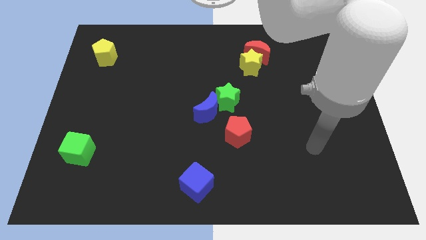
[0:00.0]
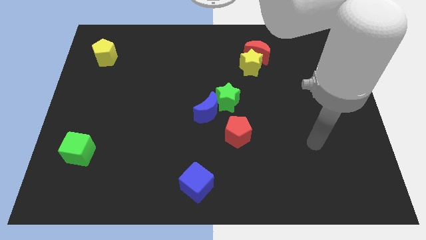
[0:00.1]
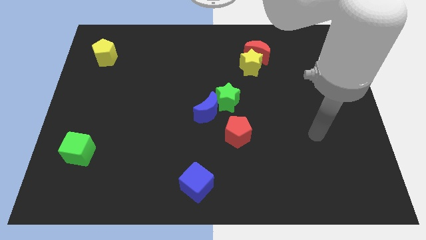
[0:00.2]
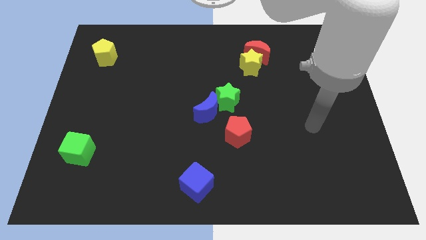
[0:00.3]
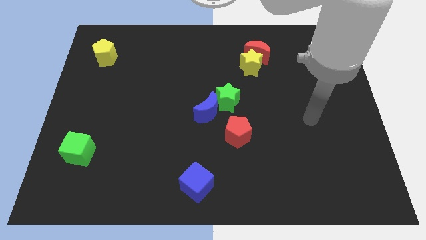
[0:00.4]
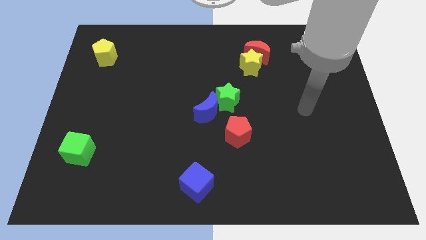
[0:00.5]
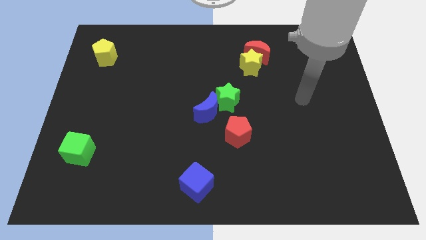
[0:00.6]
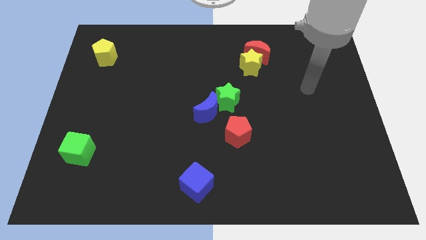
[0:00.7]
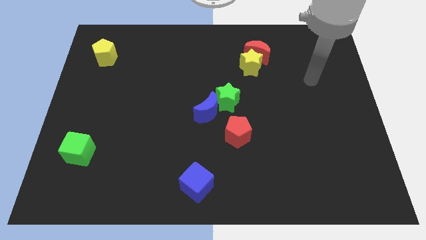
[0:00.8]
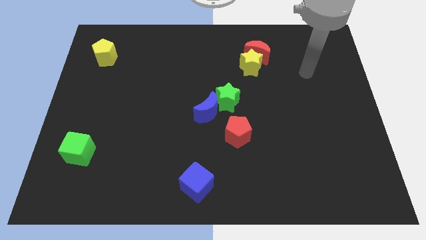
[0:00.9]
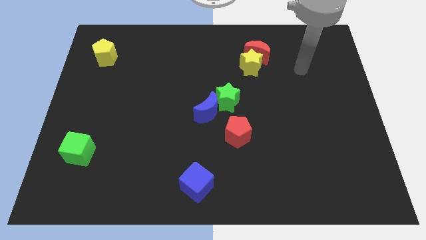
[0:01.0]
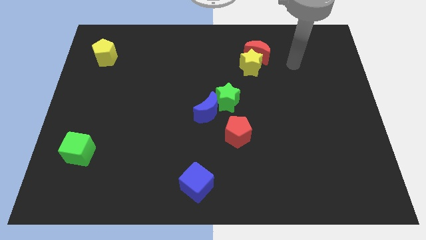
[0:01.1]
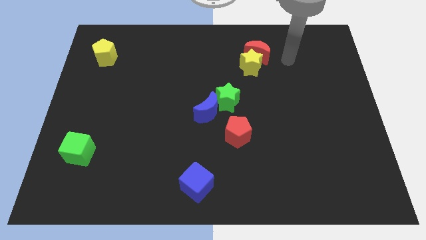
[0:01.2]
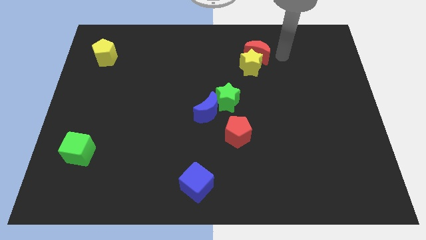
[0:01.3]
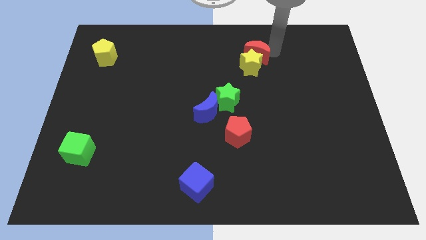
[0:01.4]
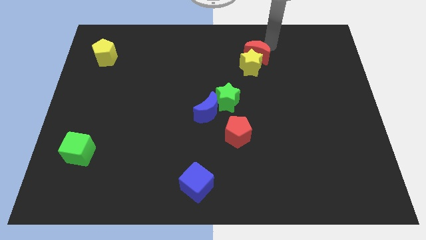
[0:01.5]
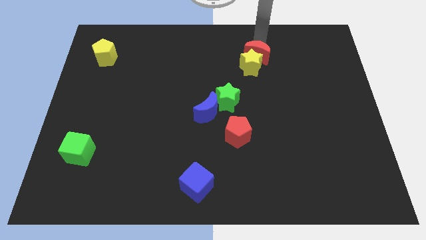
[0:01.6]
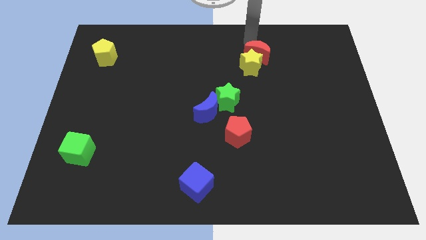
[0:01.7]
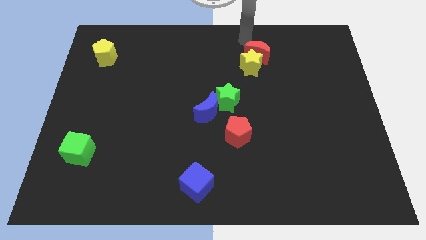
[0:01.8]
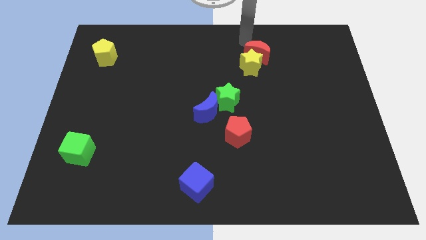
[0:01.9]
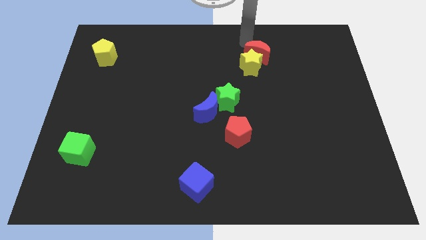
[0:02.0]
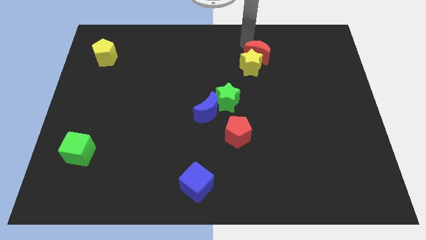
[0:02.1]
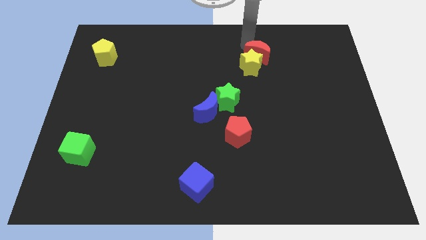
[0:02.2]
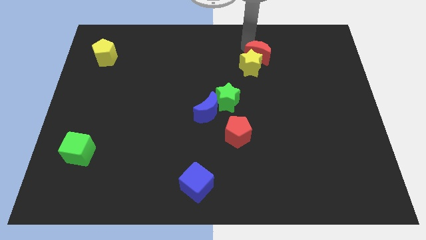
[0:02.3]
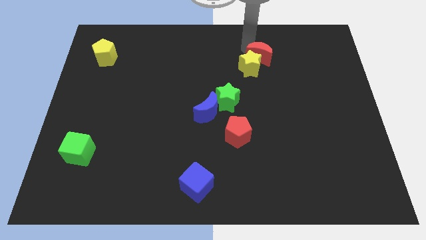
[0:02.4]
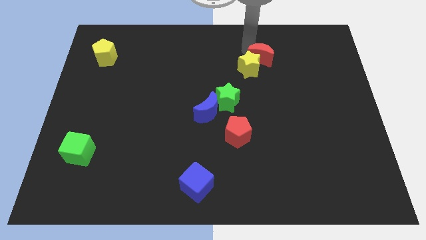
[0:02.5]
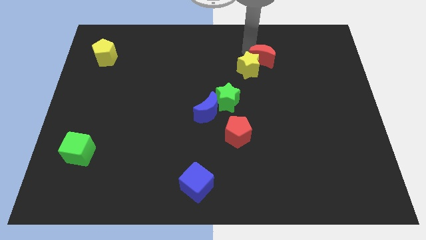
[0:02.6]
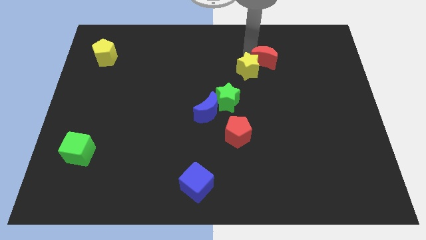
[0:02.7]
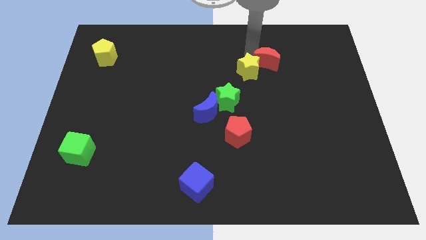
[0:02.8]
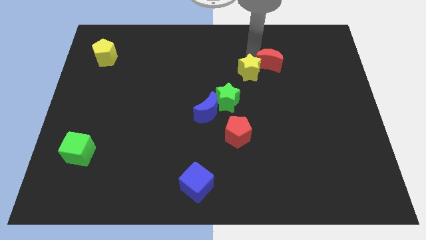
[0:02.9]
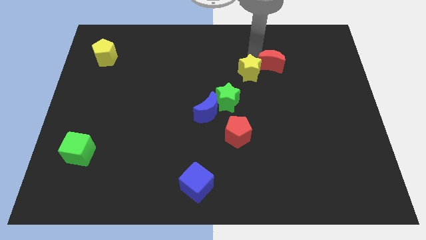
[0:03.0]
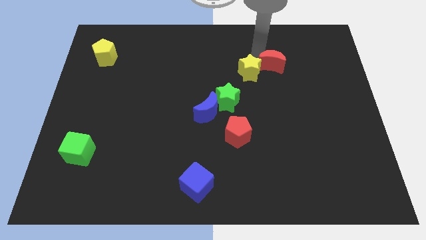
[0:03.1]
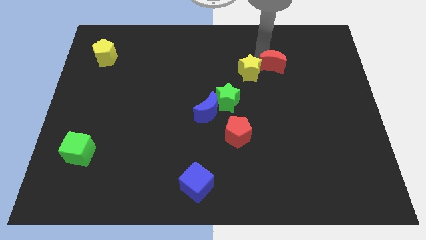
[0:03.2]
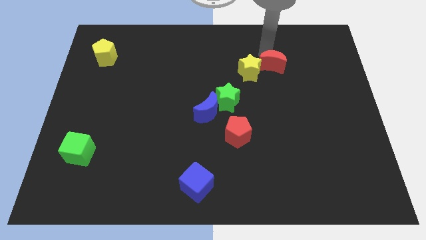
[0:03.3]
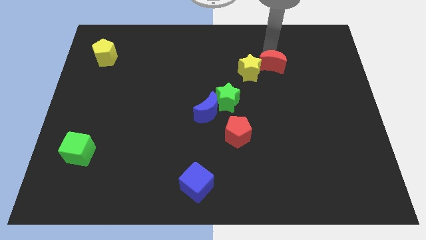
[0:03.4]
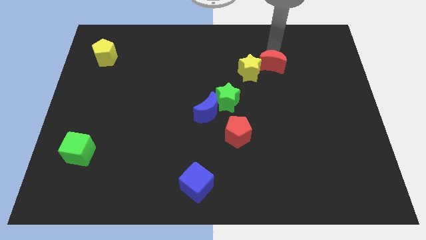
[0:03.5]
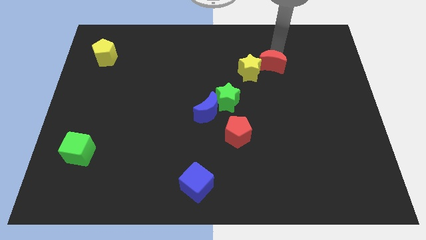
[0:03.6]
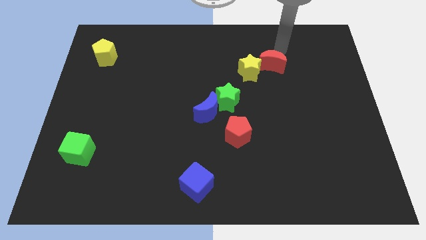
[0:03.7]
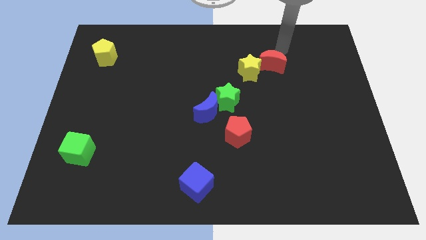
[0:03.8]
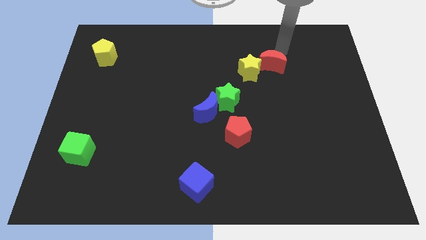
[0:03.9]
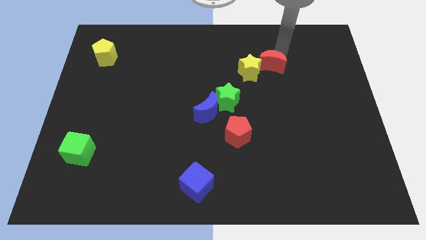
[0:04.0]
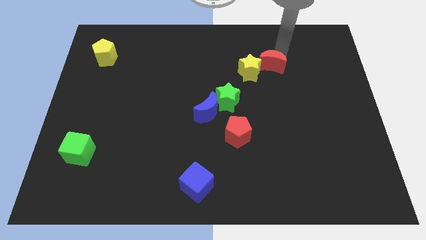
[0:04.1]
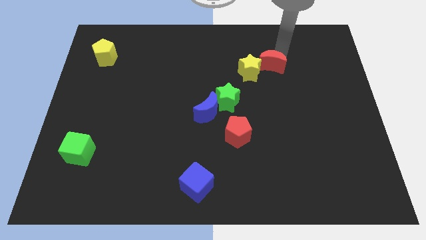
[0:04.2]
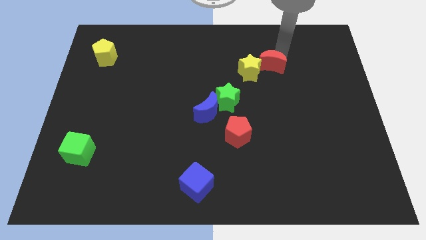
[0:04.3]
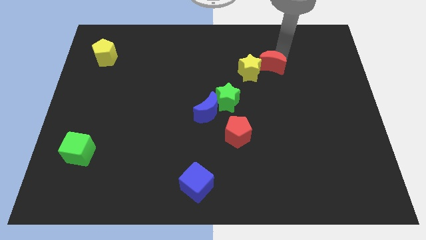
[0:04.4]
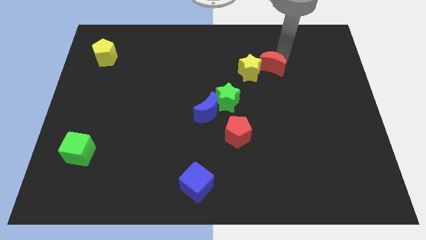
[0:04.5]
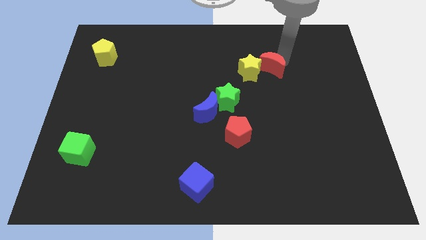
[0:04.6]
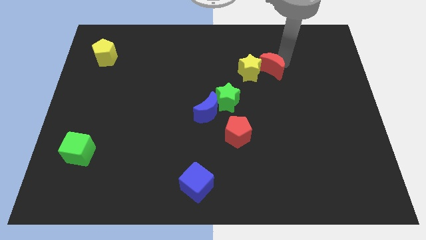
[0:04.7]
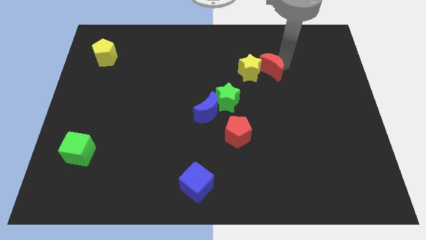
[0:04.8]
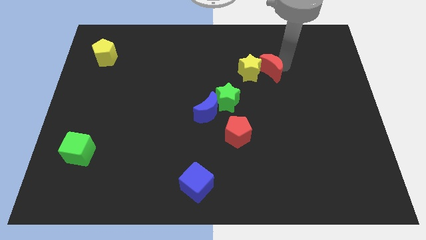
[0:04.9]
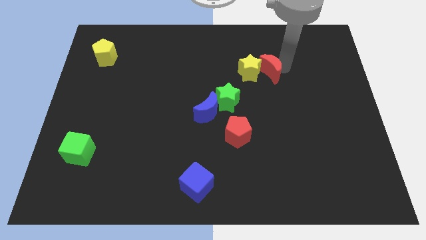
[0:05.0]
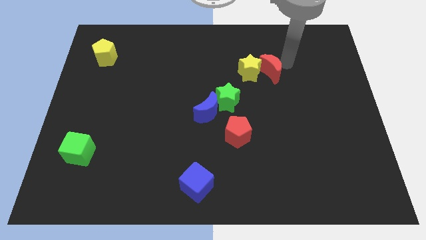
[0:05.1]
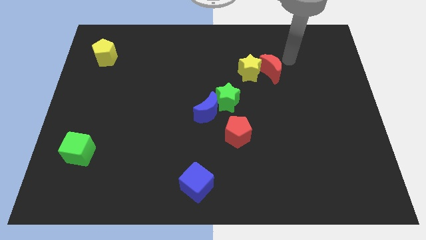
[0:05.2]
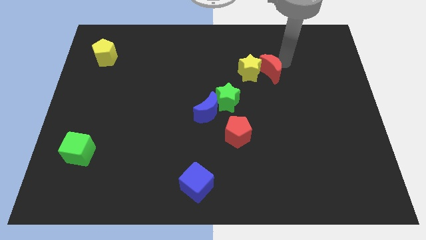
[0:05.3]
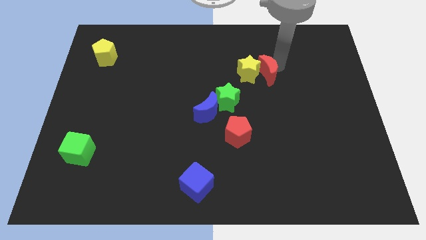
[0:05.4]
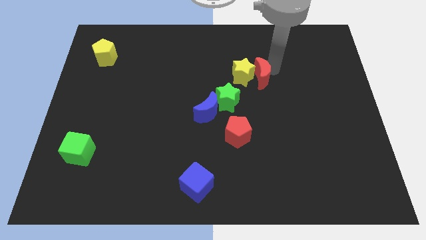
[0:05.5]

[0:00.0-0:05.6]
put the red moon to the top right of the green star

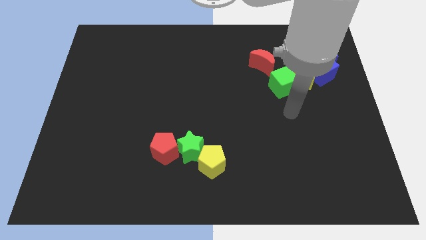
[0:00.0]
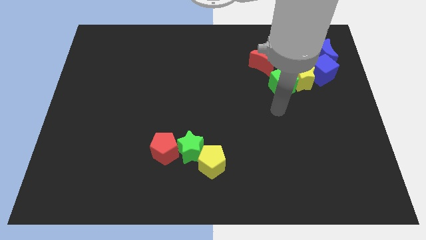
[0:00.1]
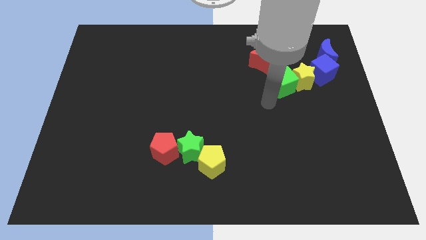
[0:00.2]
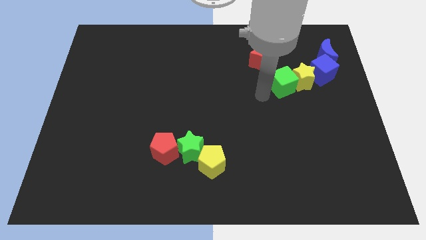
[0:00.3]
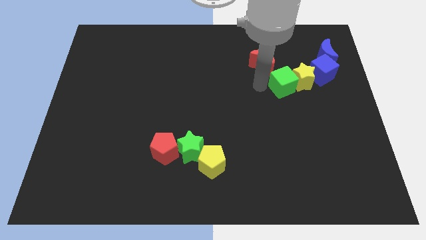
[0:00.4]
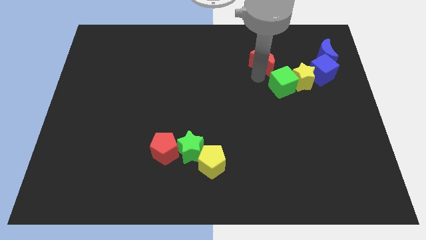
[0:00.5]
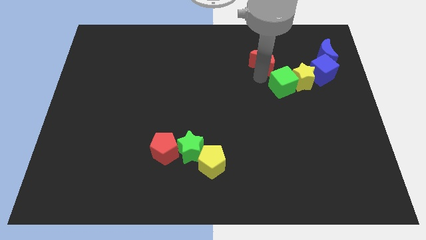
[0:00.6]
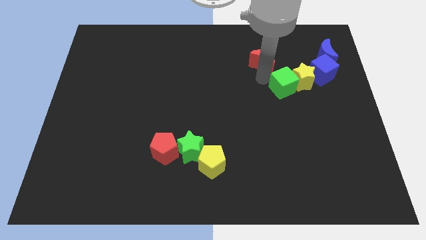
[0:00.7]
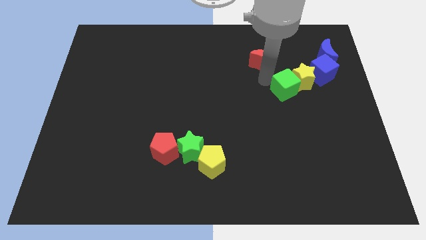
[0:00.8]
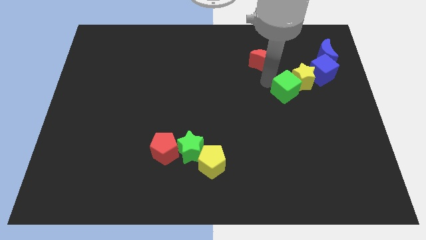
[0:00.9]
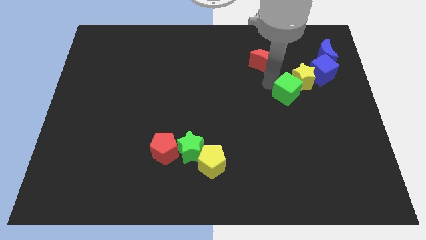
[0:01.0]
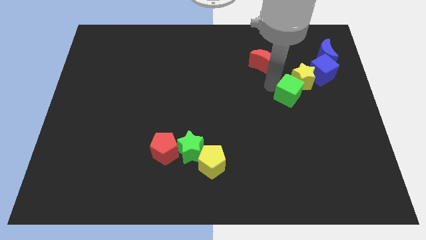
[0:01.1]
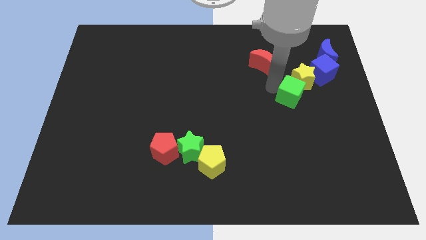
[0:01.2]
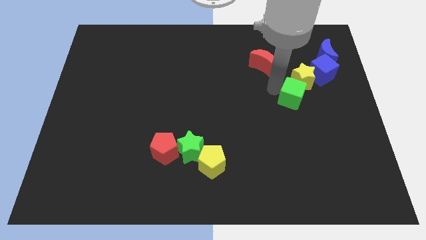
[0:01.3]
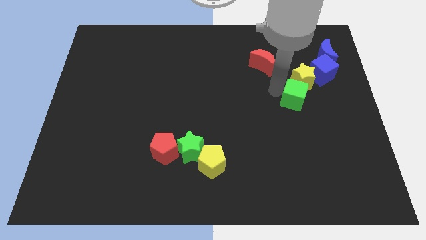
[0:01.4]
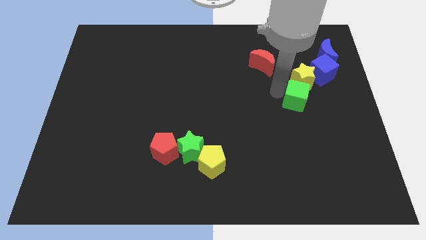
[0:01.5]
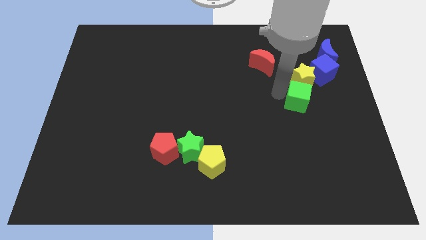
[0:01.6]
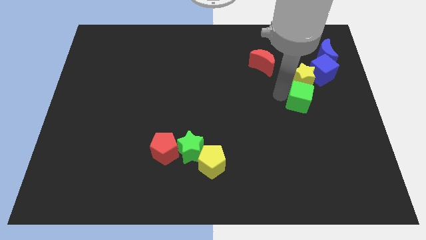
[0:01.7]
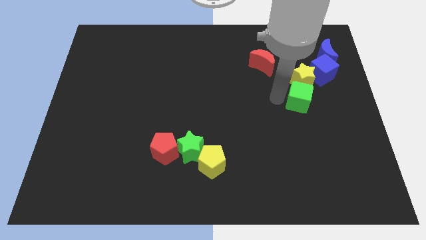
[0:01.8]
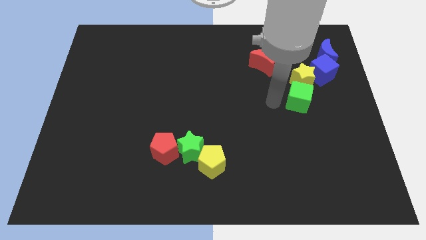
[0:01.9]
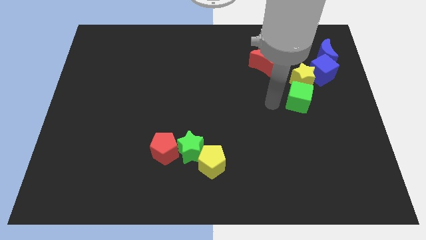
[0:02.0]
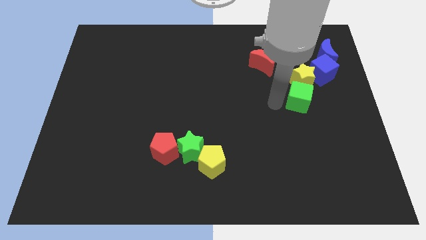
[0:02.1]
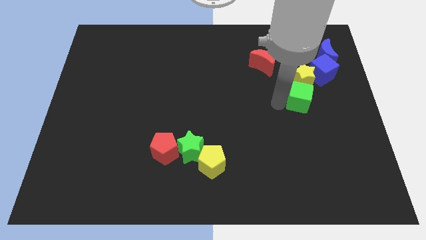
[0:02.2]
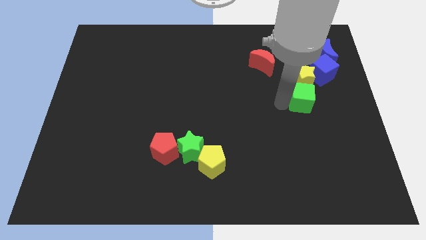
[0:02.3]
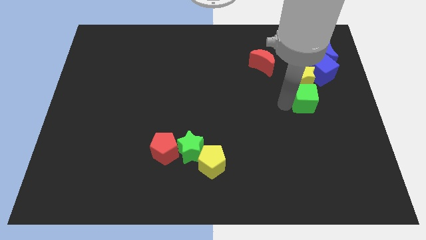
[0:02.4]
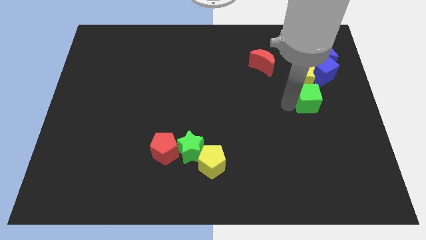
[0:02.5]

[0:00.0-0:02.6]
put the green cube to the bottom right side of the yellow star
